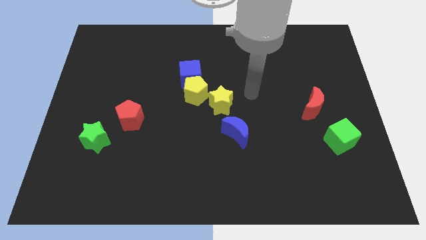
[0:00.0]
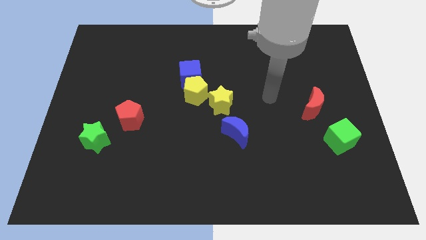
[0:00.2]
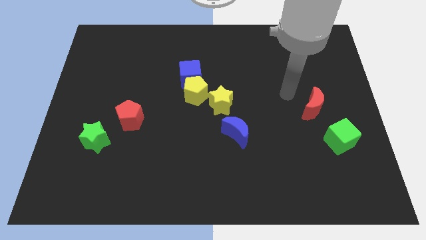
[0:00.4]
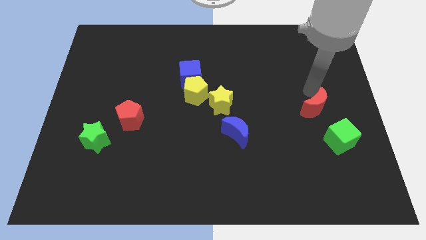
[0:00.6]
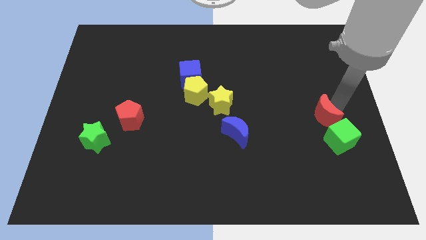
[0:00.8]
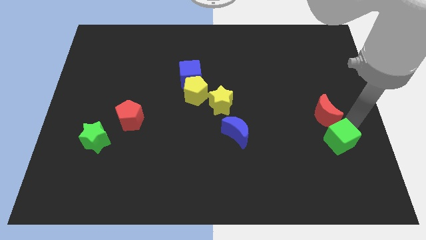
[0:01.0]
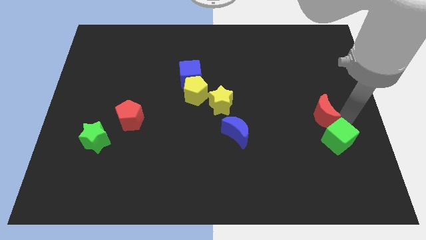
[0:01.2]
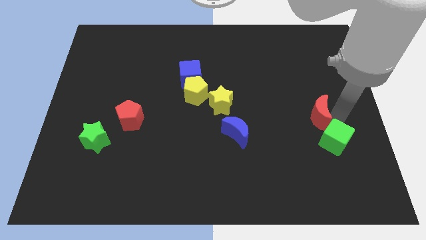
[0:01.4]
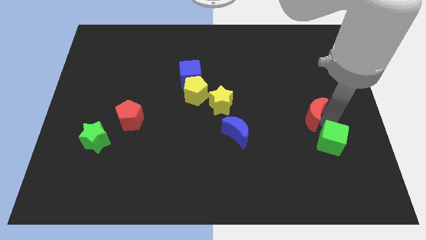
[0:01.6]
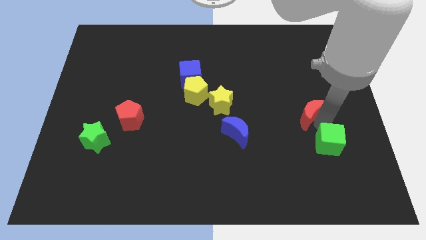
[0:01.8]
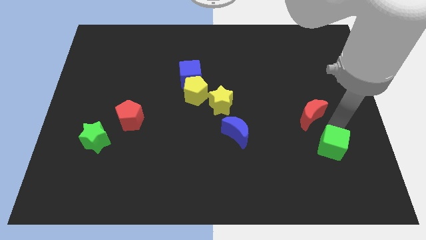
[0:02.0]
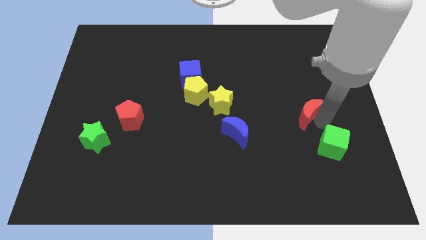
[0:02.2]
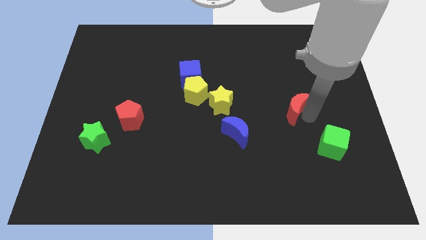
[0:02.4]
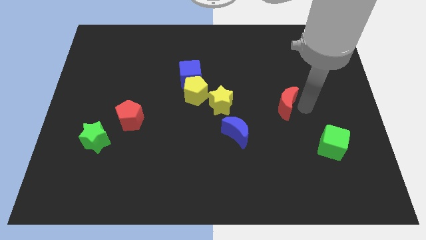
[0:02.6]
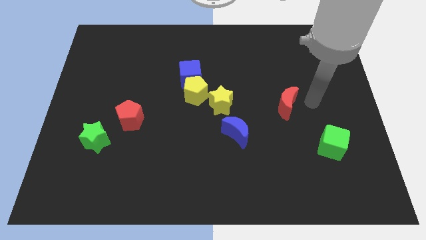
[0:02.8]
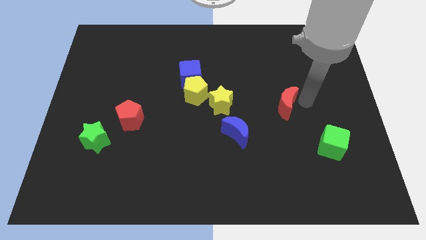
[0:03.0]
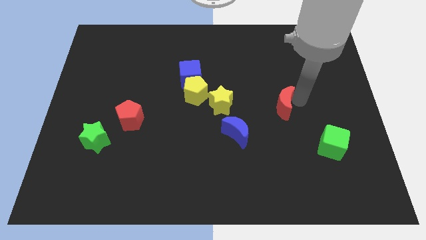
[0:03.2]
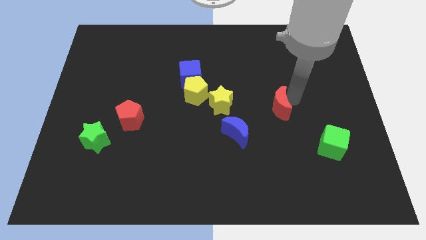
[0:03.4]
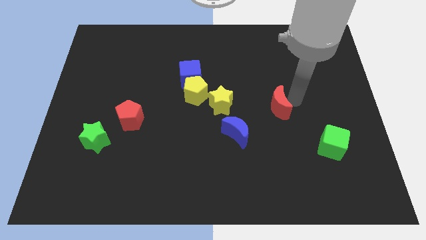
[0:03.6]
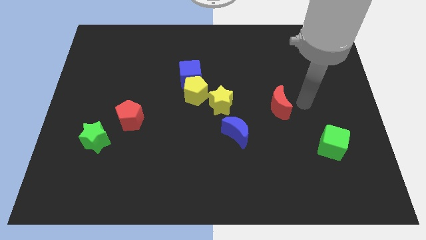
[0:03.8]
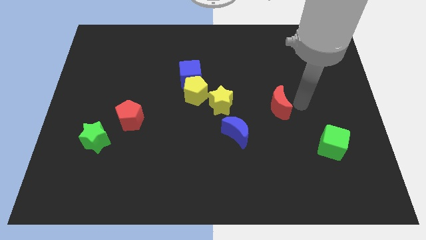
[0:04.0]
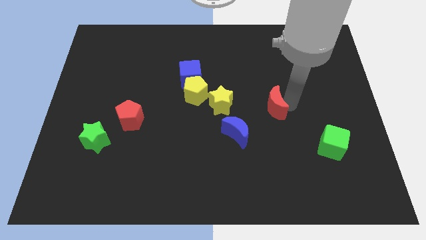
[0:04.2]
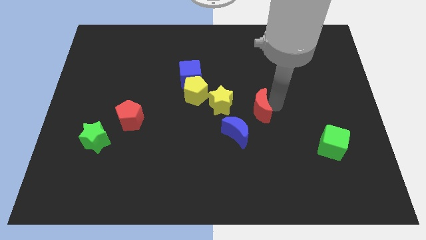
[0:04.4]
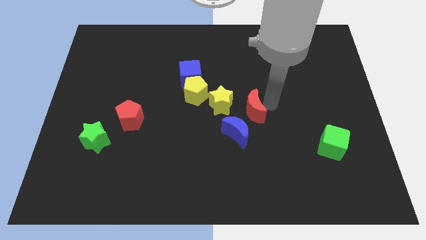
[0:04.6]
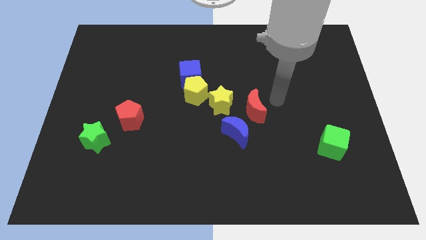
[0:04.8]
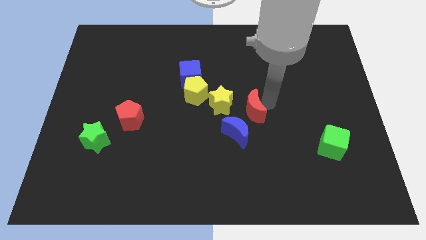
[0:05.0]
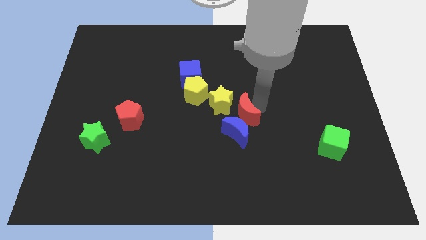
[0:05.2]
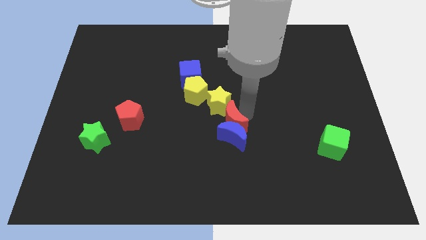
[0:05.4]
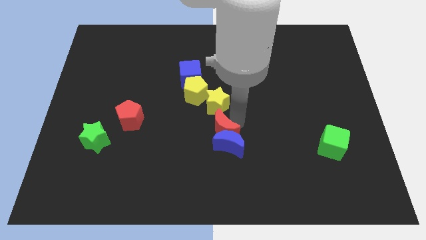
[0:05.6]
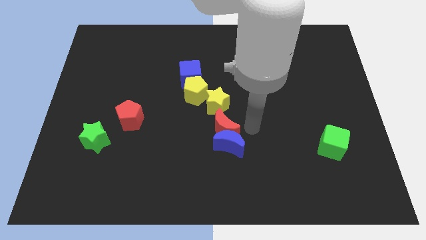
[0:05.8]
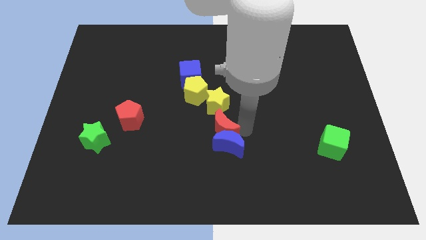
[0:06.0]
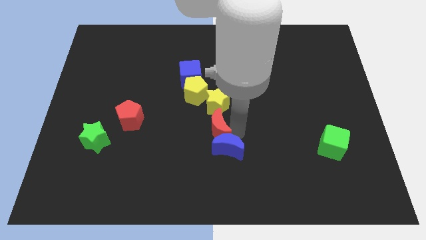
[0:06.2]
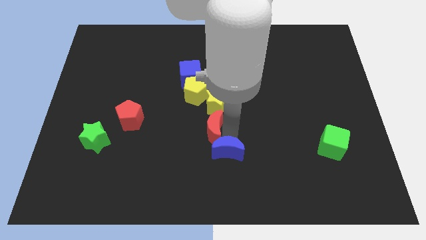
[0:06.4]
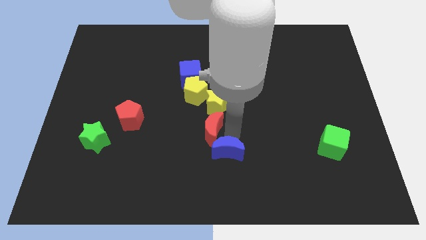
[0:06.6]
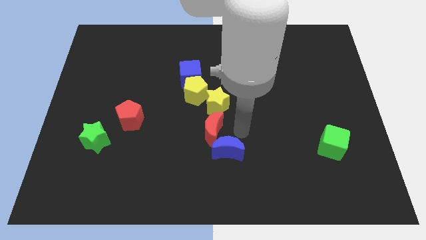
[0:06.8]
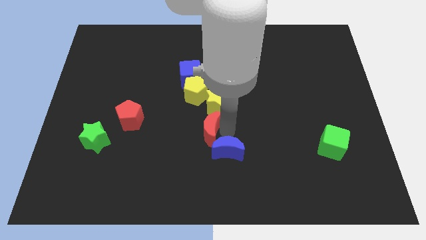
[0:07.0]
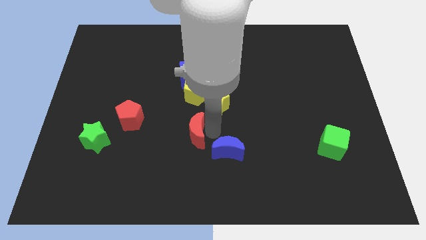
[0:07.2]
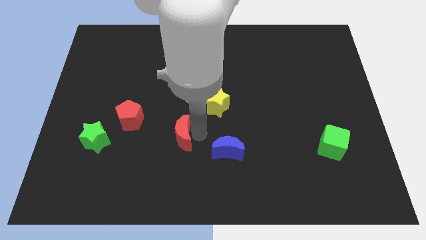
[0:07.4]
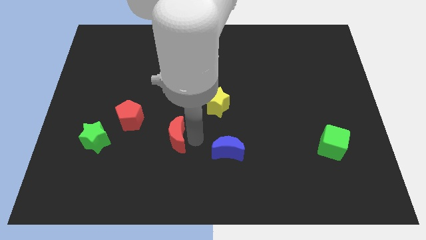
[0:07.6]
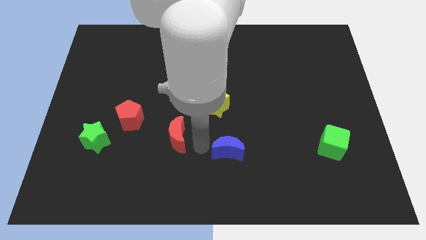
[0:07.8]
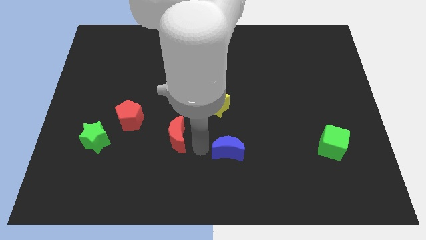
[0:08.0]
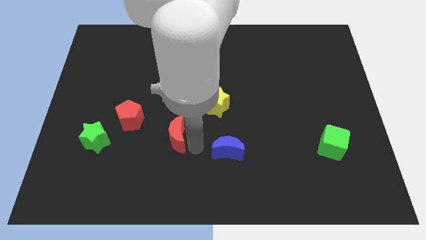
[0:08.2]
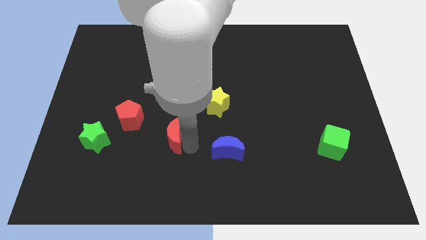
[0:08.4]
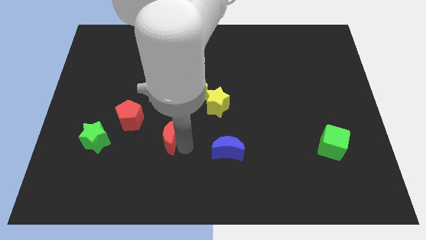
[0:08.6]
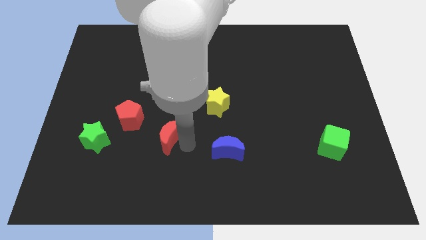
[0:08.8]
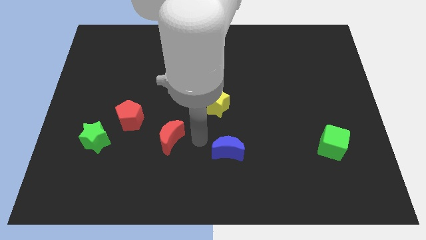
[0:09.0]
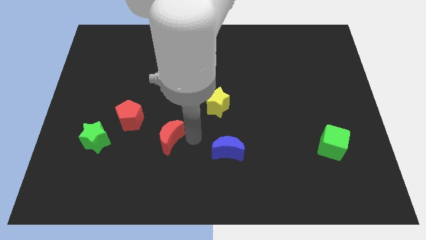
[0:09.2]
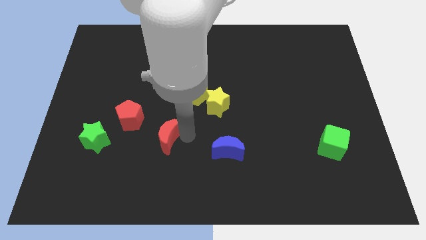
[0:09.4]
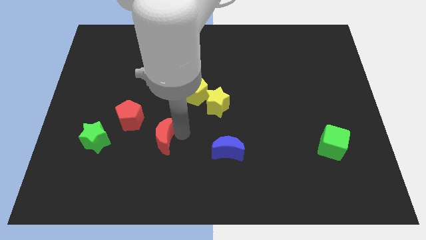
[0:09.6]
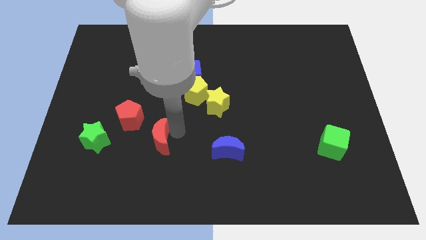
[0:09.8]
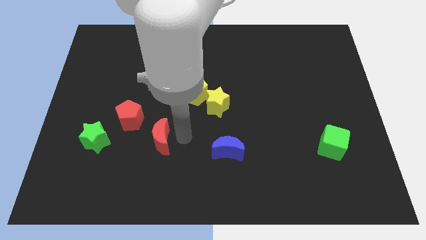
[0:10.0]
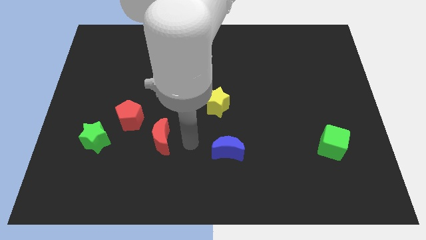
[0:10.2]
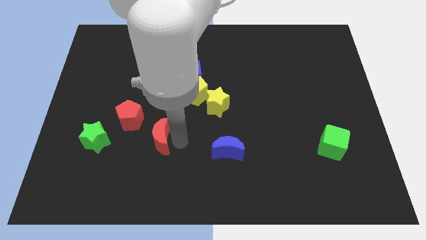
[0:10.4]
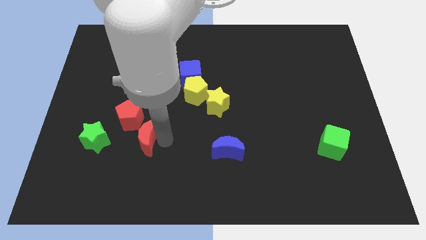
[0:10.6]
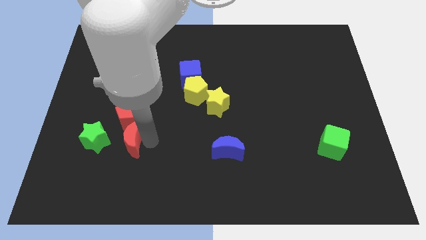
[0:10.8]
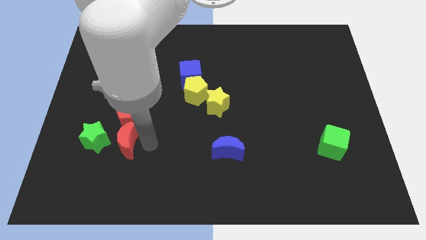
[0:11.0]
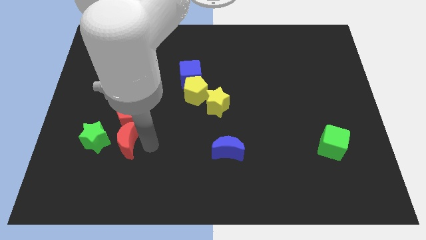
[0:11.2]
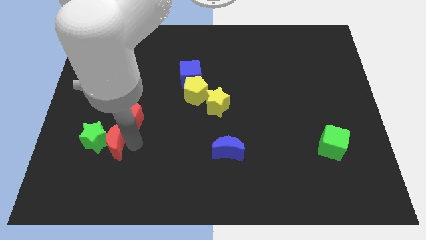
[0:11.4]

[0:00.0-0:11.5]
put the red moon next to the green star

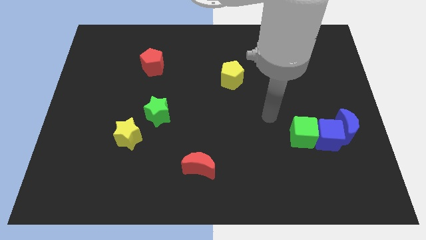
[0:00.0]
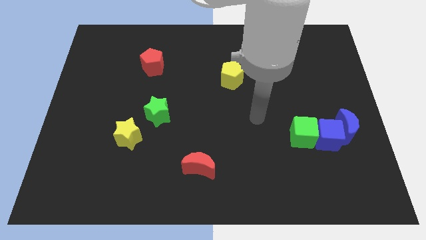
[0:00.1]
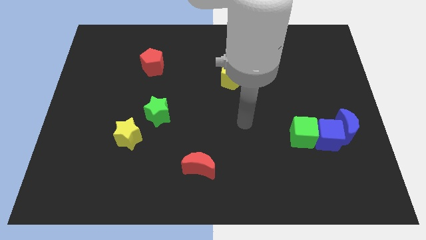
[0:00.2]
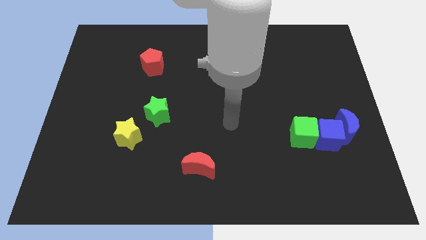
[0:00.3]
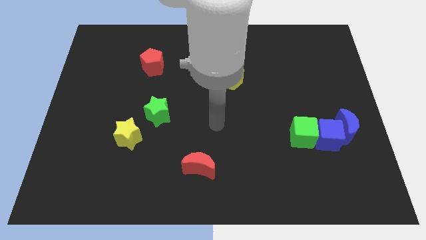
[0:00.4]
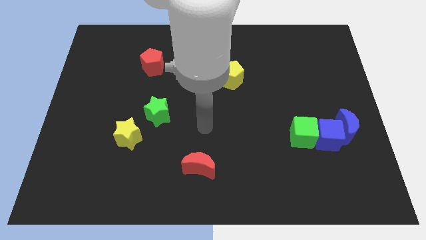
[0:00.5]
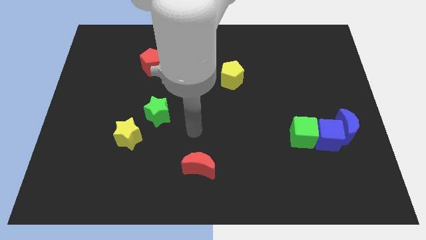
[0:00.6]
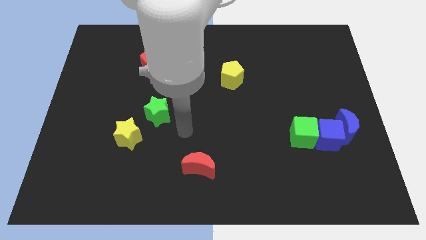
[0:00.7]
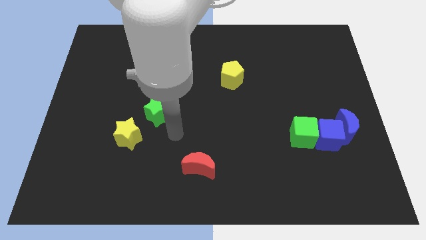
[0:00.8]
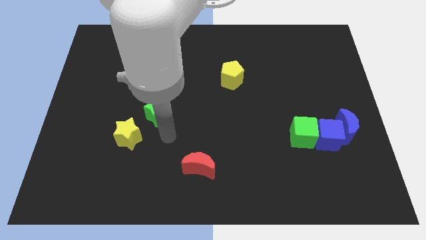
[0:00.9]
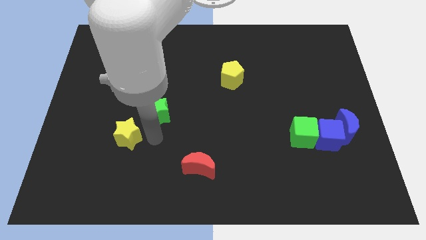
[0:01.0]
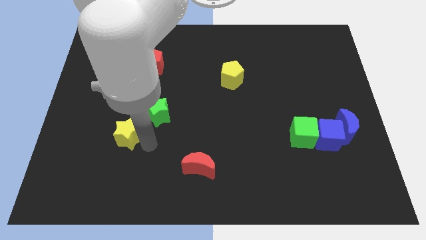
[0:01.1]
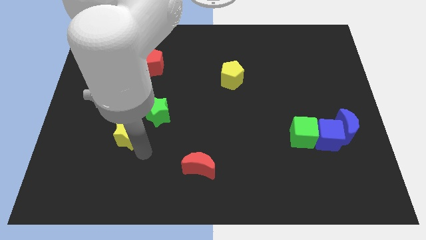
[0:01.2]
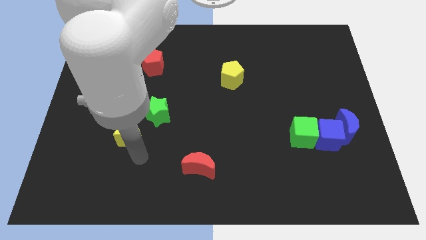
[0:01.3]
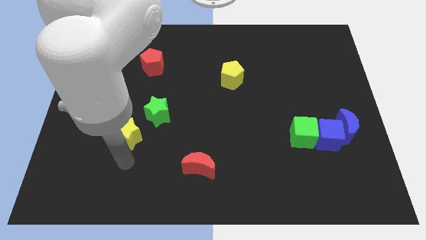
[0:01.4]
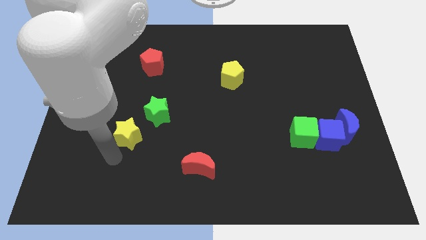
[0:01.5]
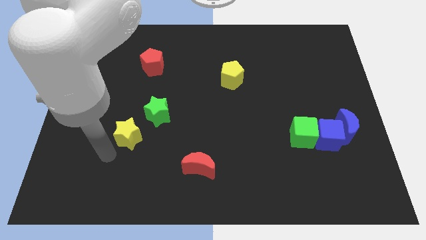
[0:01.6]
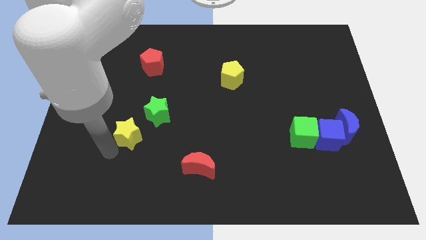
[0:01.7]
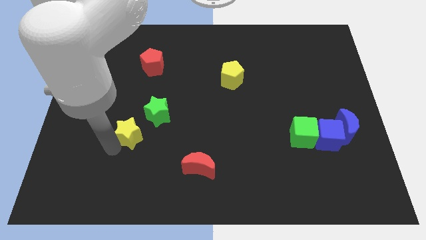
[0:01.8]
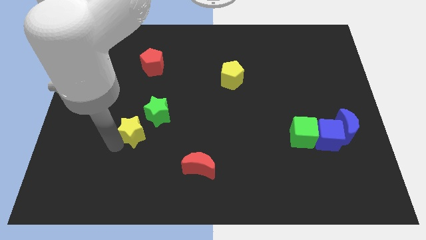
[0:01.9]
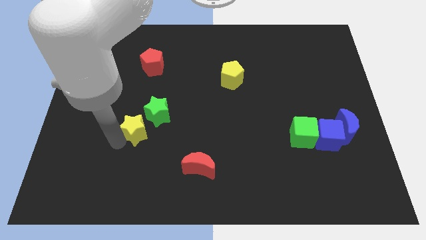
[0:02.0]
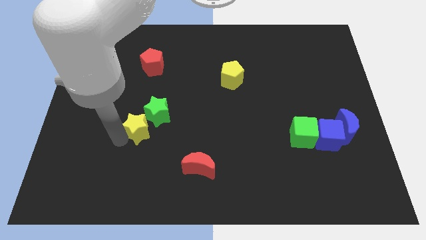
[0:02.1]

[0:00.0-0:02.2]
put the yellow star close to the green star

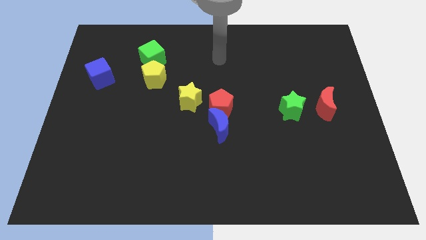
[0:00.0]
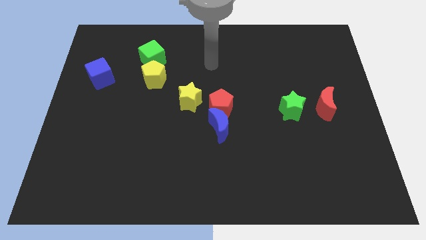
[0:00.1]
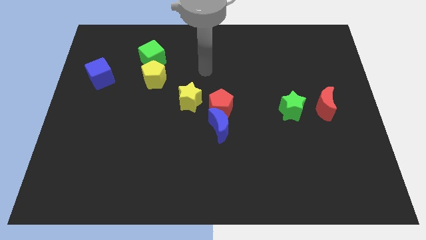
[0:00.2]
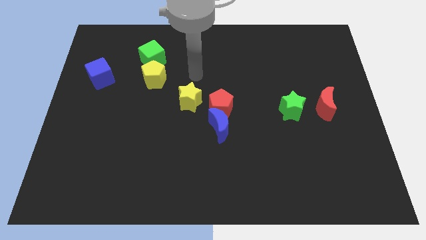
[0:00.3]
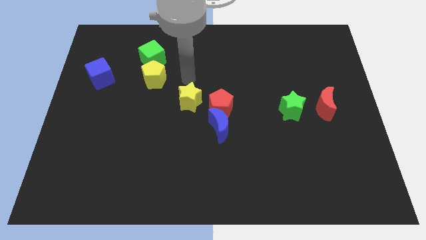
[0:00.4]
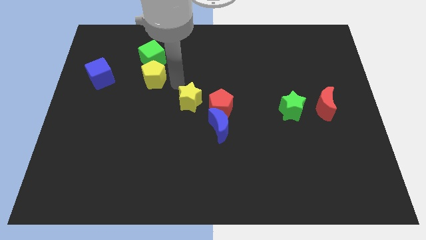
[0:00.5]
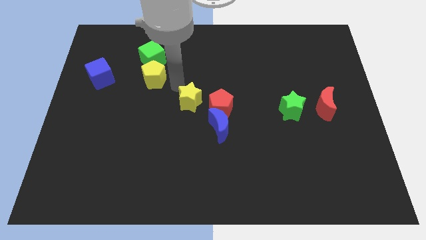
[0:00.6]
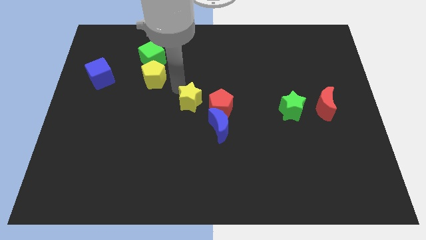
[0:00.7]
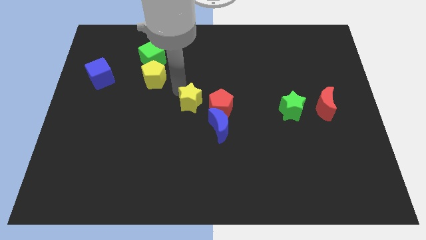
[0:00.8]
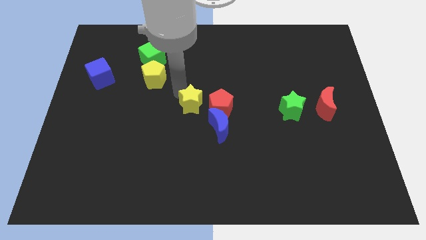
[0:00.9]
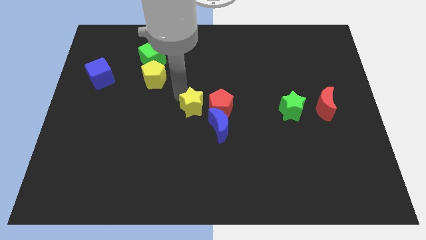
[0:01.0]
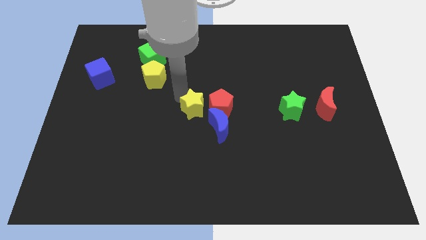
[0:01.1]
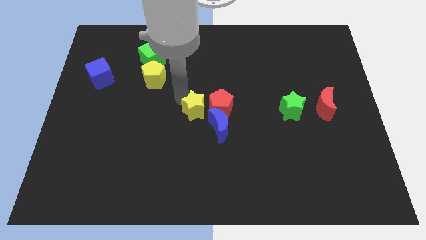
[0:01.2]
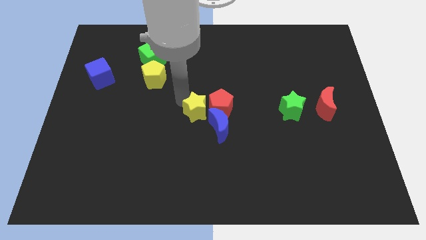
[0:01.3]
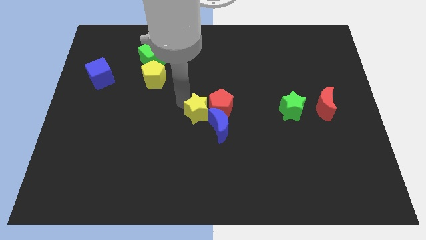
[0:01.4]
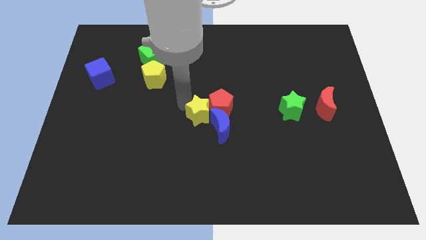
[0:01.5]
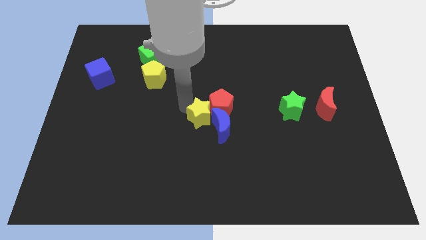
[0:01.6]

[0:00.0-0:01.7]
push the yellow star to the blue moon
